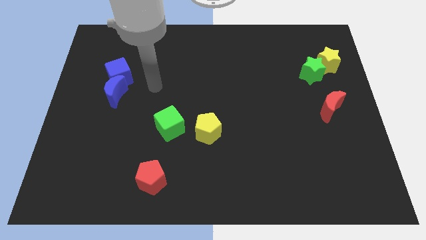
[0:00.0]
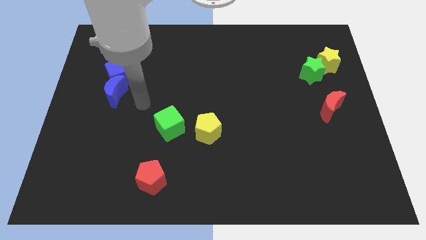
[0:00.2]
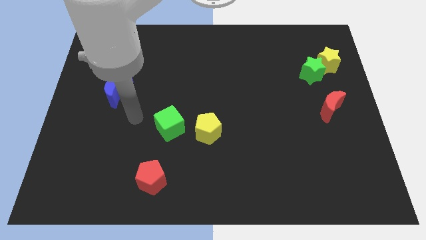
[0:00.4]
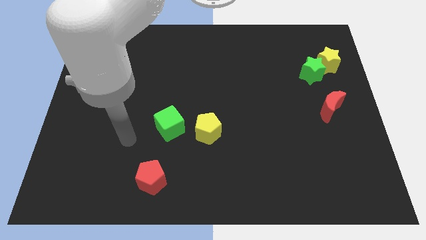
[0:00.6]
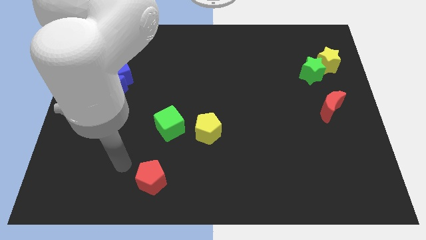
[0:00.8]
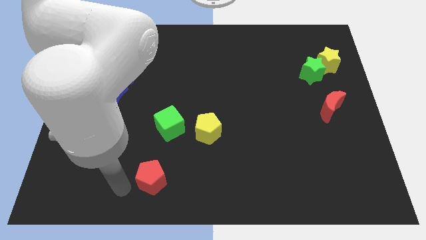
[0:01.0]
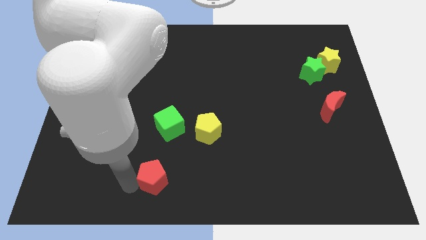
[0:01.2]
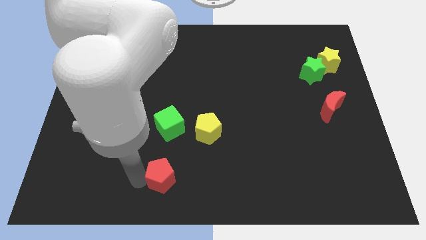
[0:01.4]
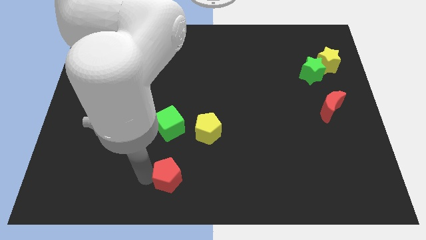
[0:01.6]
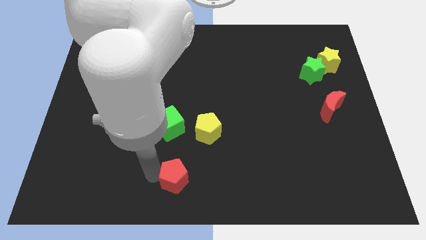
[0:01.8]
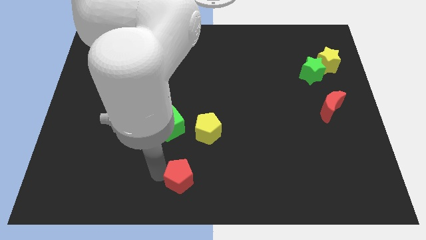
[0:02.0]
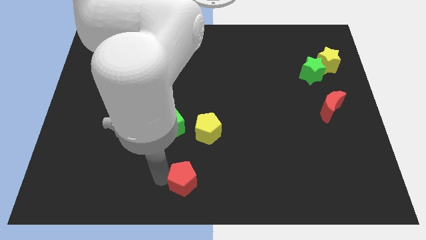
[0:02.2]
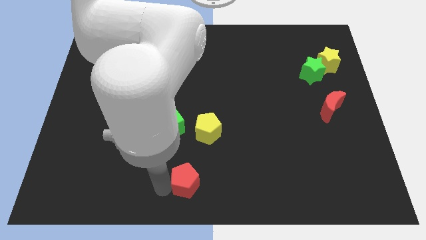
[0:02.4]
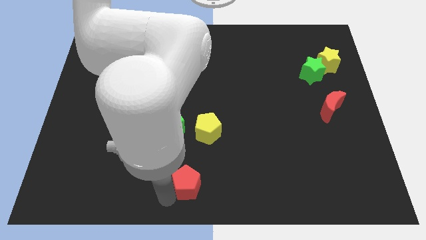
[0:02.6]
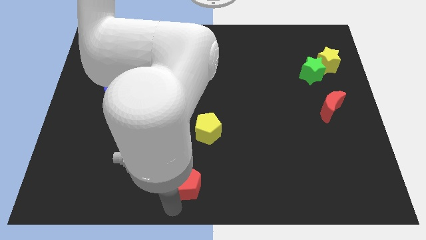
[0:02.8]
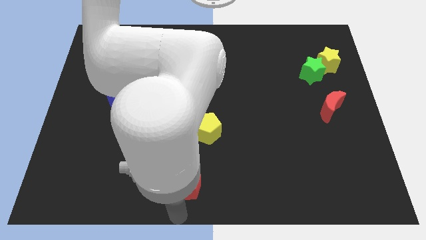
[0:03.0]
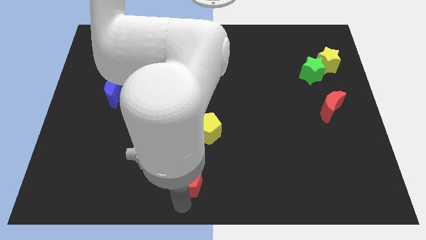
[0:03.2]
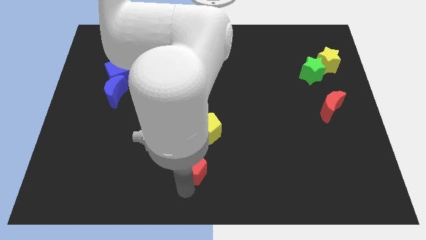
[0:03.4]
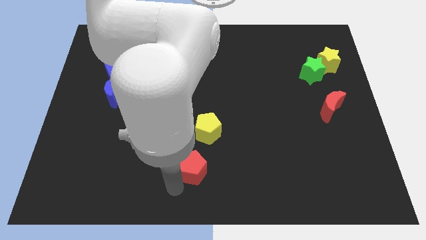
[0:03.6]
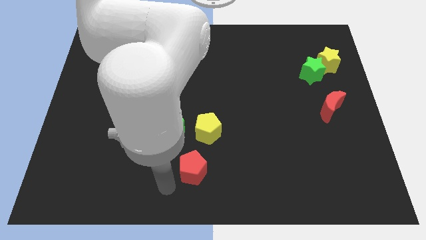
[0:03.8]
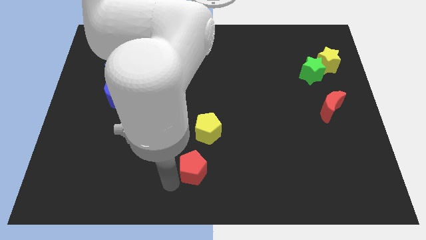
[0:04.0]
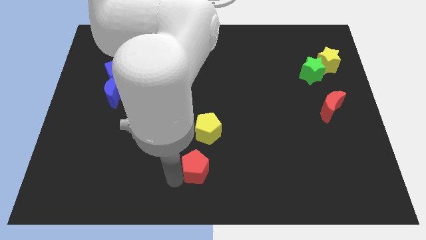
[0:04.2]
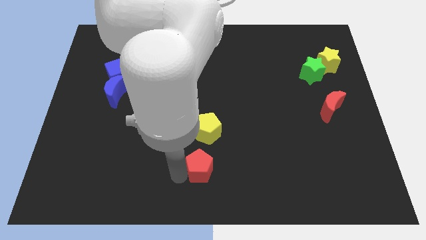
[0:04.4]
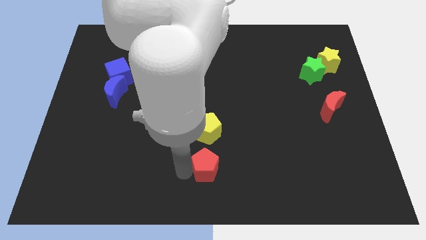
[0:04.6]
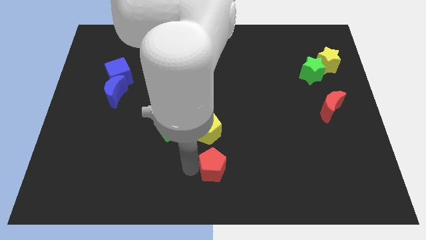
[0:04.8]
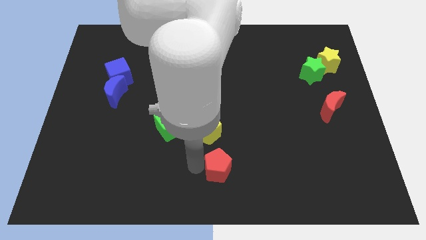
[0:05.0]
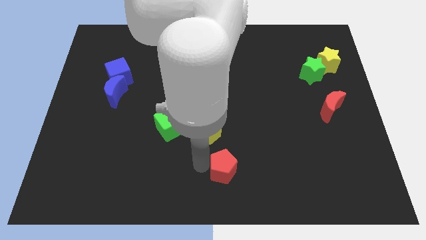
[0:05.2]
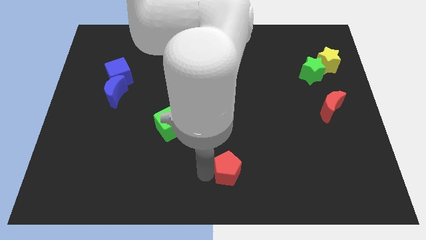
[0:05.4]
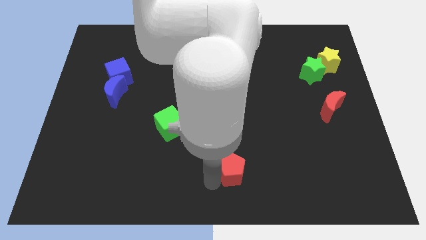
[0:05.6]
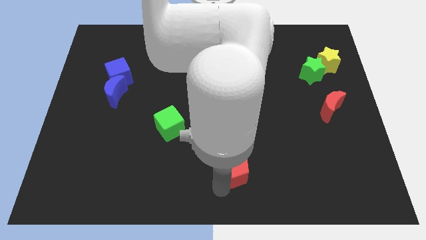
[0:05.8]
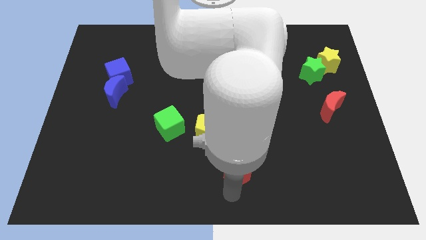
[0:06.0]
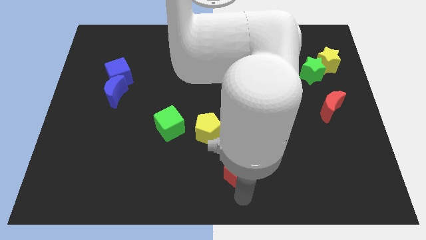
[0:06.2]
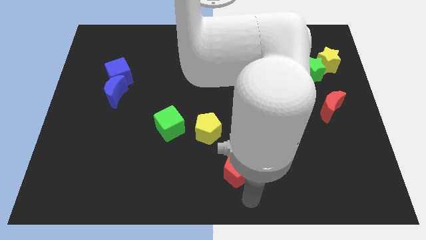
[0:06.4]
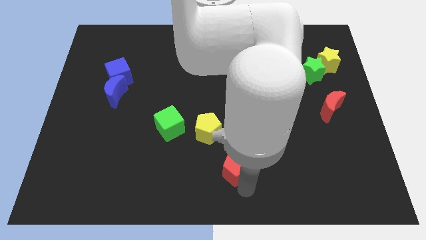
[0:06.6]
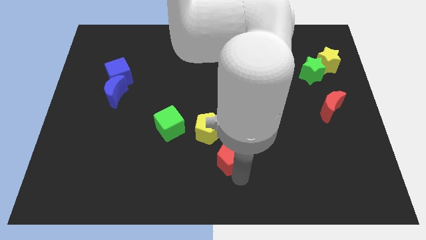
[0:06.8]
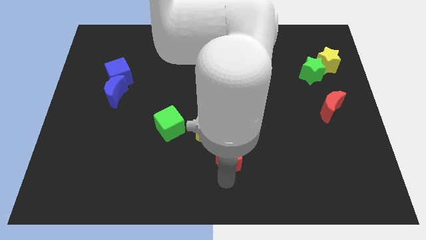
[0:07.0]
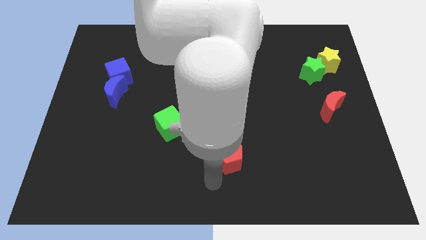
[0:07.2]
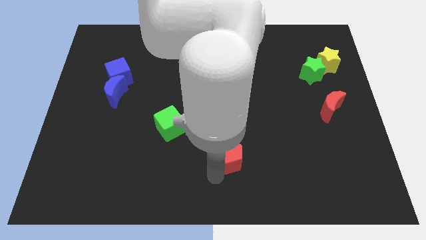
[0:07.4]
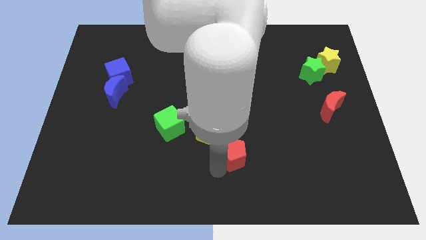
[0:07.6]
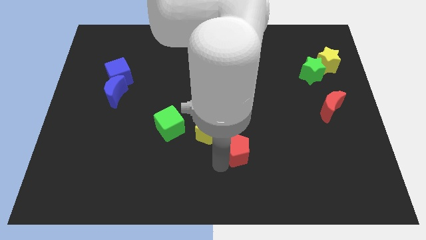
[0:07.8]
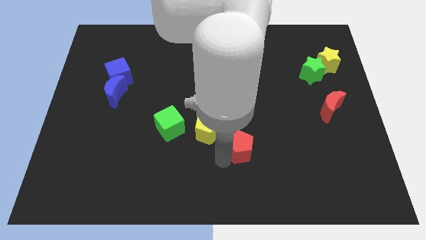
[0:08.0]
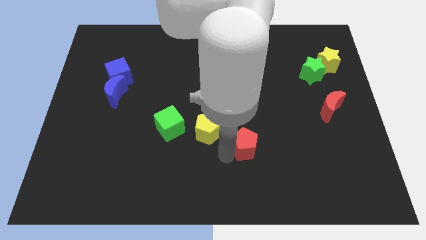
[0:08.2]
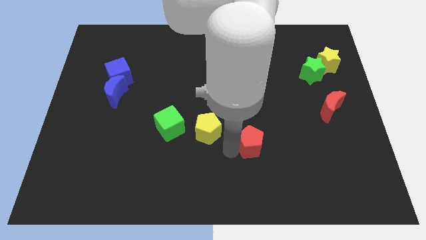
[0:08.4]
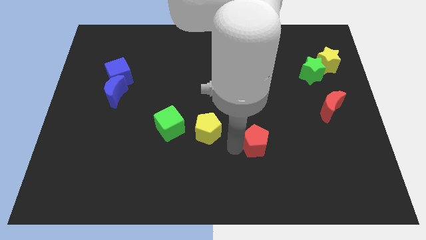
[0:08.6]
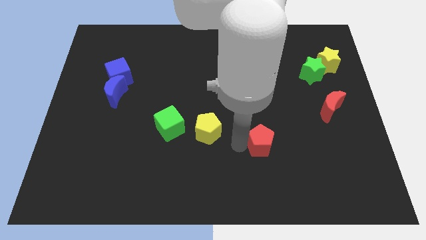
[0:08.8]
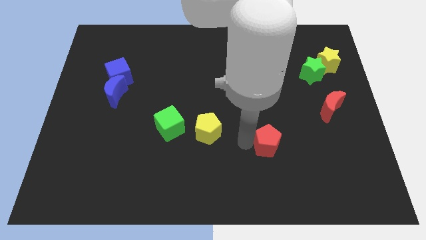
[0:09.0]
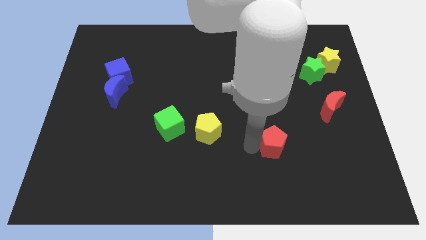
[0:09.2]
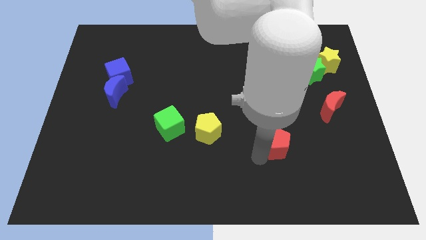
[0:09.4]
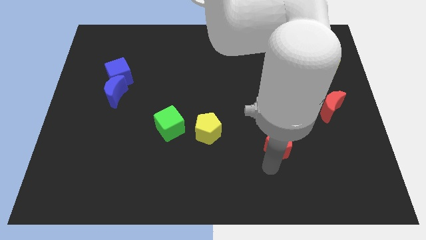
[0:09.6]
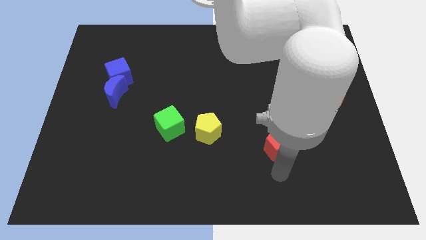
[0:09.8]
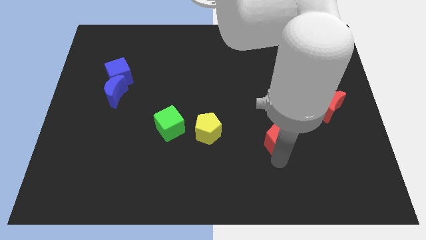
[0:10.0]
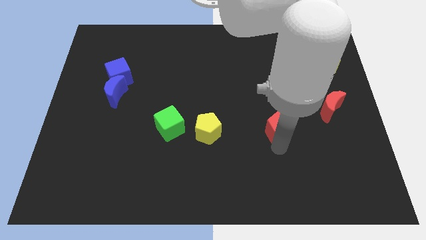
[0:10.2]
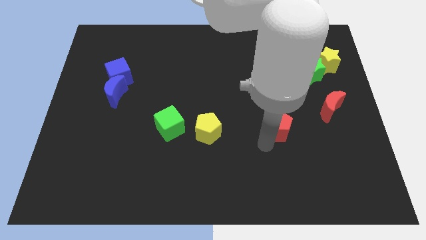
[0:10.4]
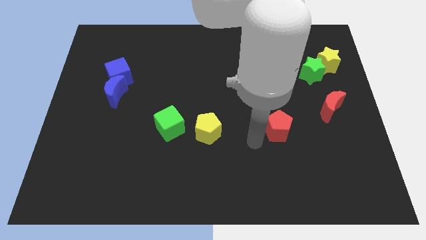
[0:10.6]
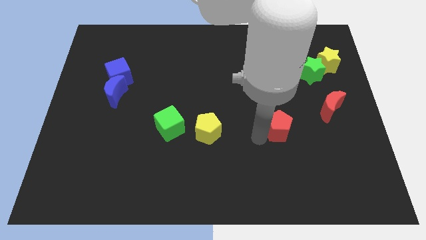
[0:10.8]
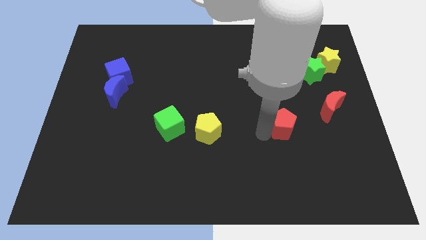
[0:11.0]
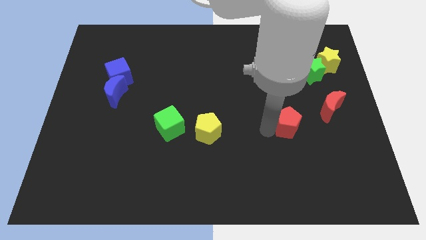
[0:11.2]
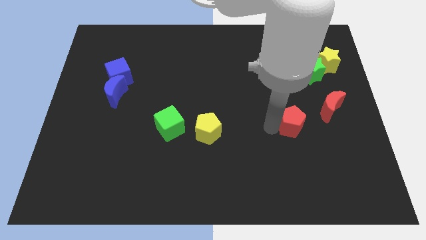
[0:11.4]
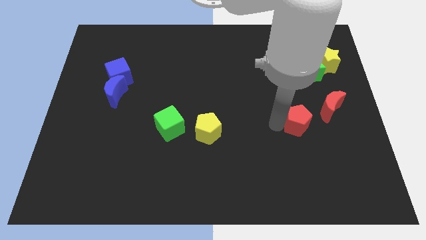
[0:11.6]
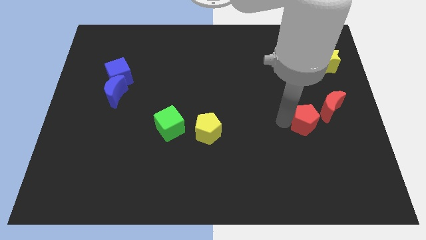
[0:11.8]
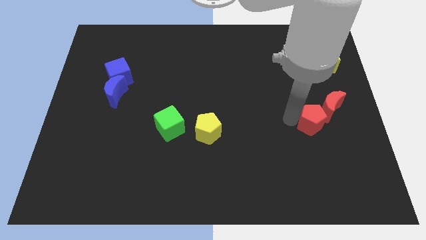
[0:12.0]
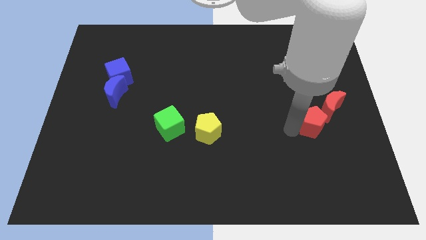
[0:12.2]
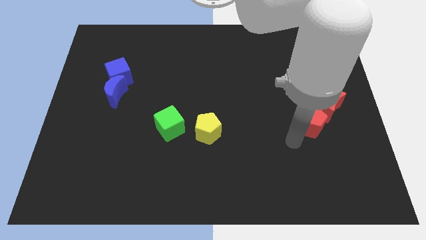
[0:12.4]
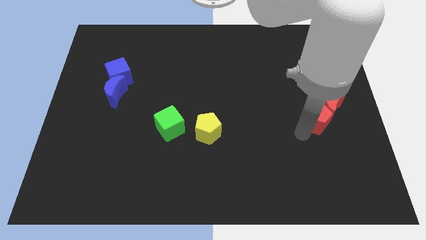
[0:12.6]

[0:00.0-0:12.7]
put the red pentagon next to the red moon

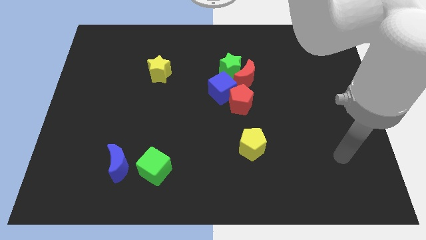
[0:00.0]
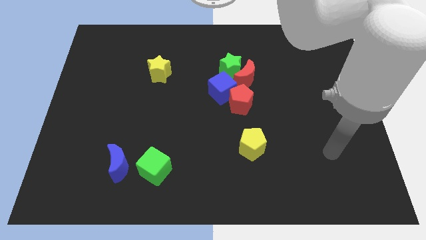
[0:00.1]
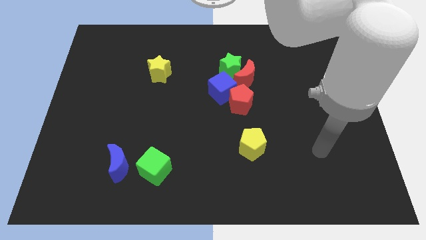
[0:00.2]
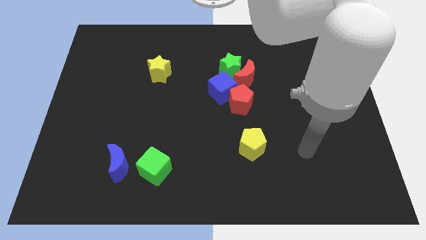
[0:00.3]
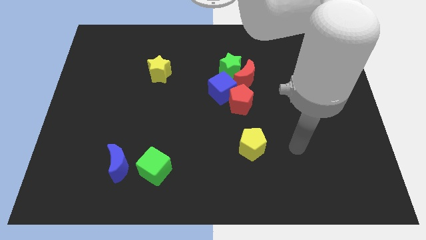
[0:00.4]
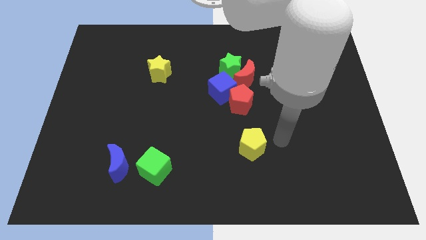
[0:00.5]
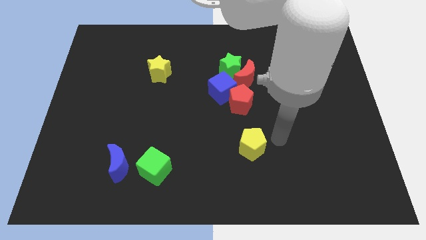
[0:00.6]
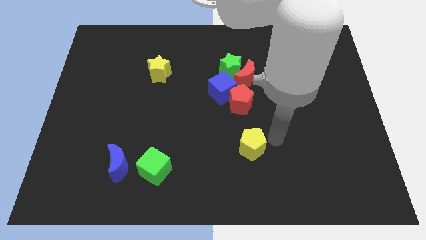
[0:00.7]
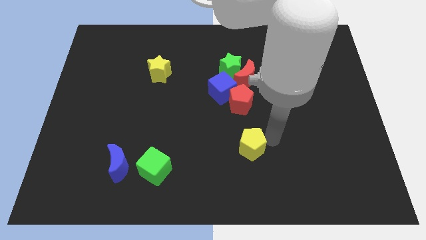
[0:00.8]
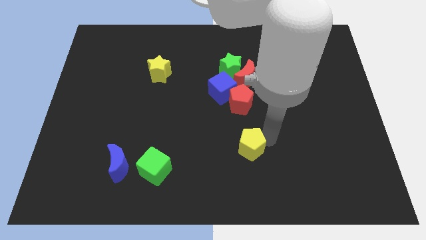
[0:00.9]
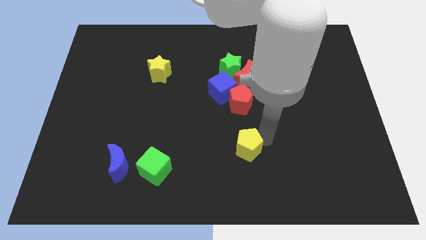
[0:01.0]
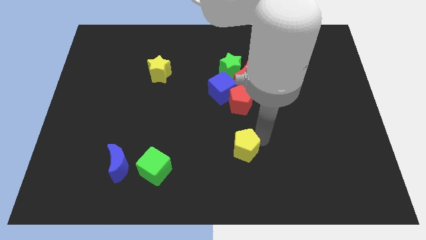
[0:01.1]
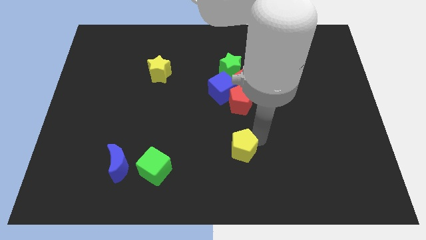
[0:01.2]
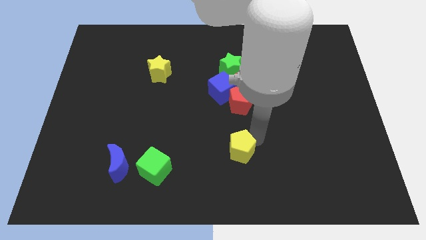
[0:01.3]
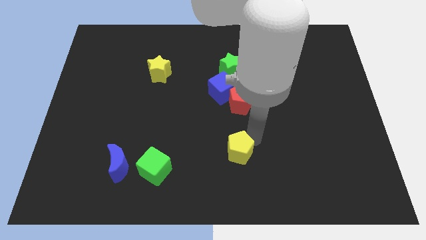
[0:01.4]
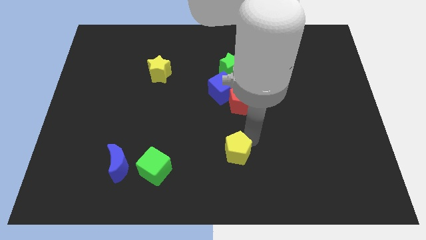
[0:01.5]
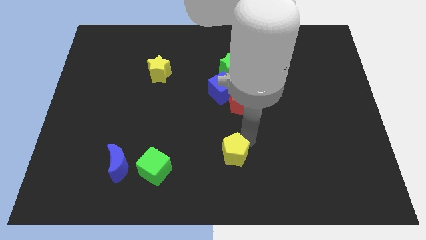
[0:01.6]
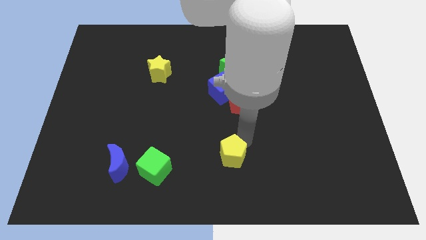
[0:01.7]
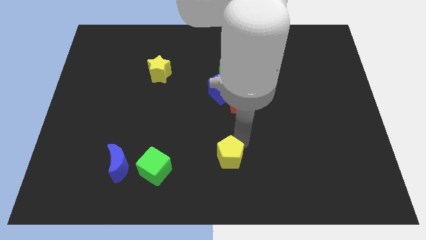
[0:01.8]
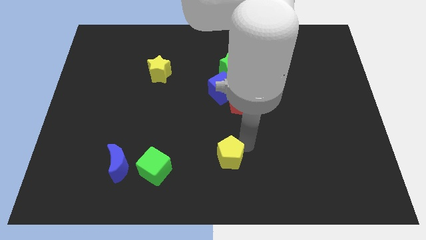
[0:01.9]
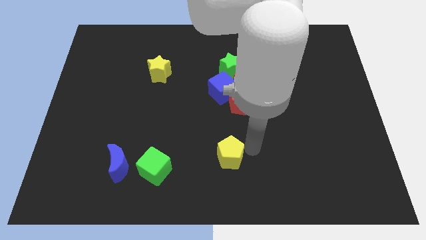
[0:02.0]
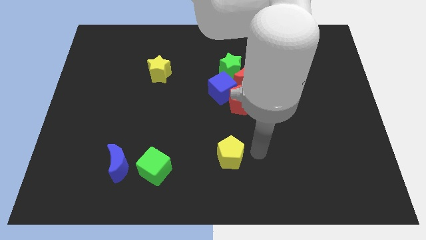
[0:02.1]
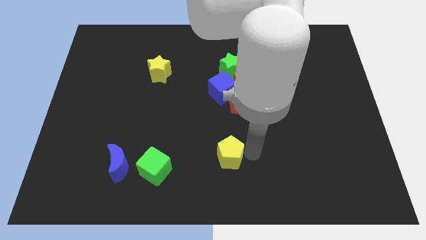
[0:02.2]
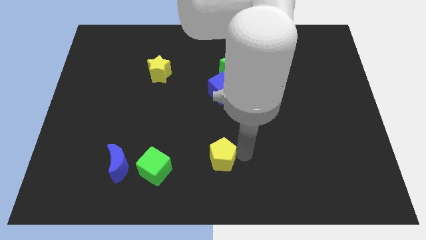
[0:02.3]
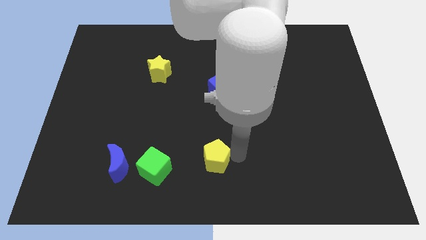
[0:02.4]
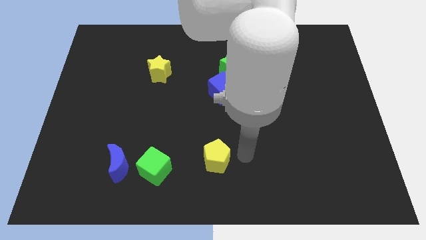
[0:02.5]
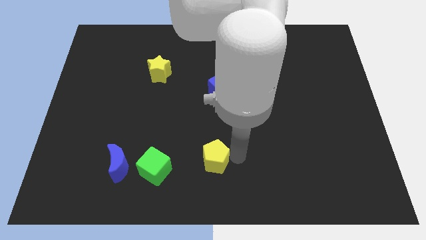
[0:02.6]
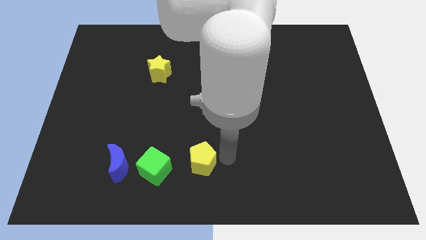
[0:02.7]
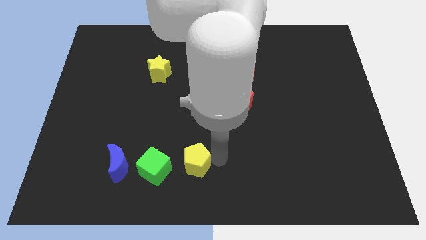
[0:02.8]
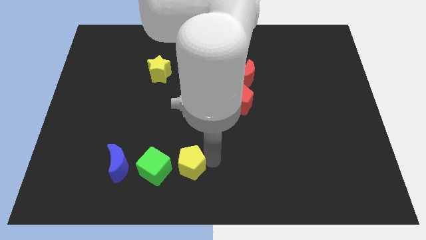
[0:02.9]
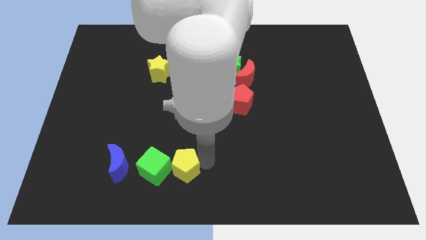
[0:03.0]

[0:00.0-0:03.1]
push the yellow pentagon to the green cube
